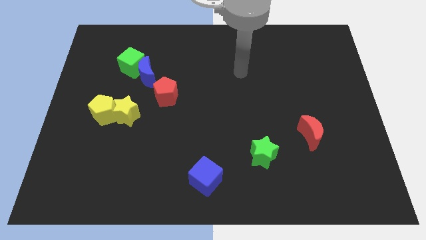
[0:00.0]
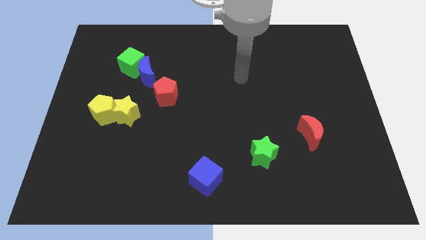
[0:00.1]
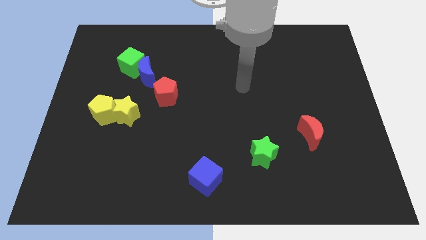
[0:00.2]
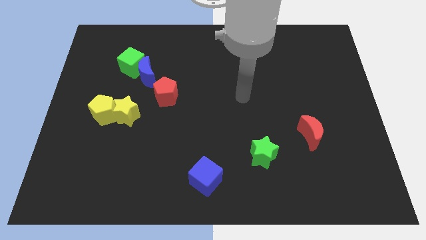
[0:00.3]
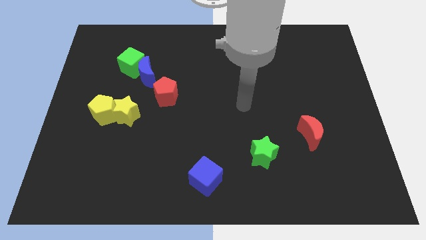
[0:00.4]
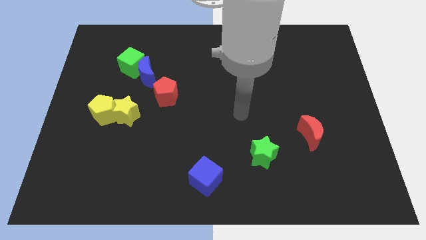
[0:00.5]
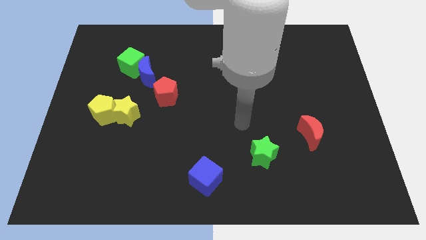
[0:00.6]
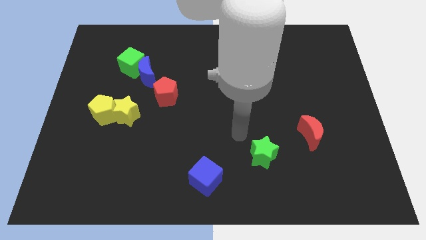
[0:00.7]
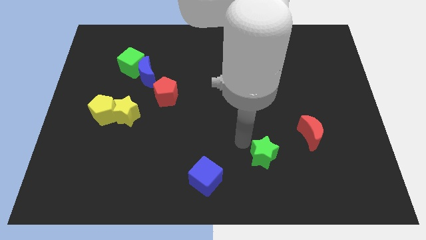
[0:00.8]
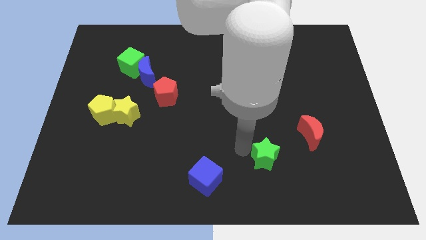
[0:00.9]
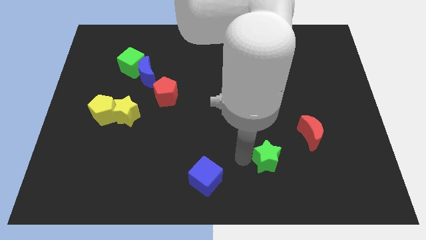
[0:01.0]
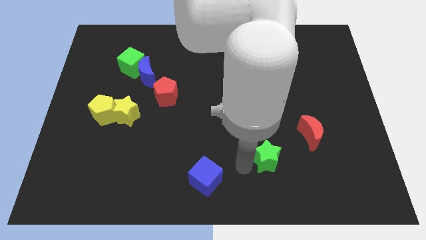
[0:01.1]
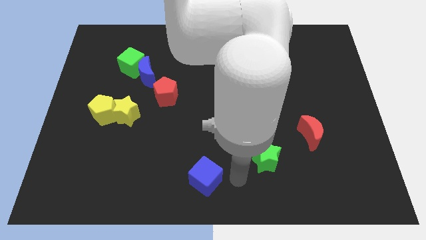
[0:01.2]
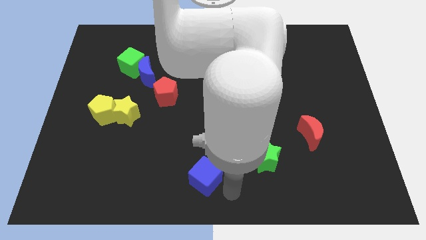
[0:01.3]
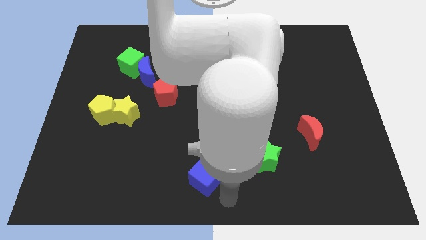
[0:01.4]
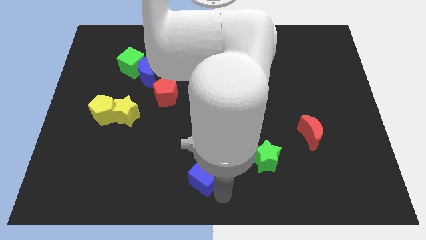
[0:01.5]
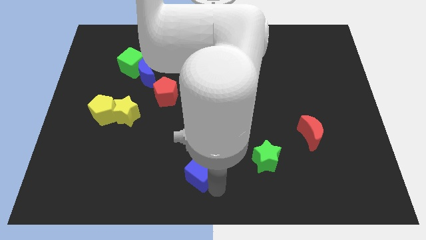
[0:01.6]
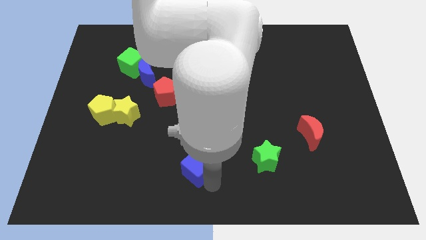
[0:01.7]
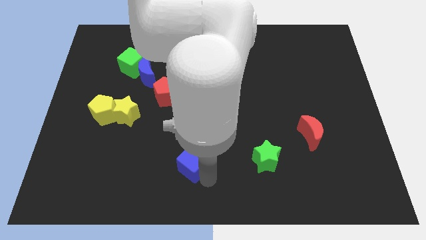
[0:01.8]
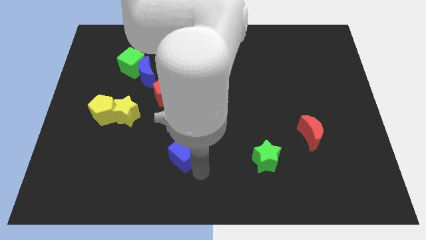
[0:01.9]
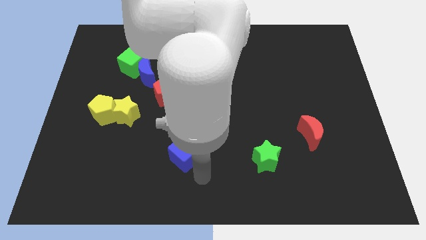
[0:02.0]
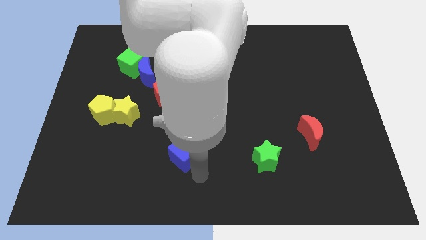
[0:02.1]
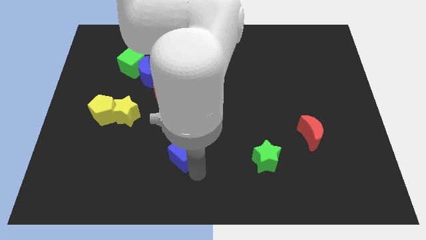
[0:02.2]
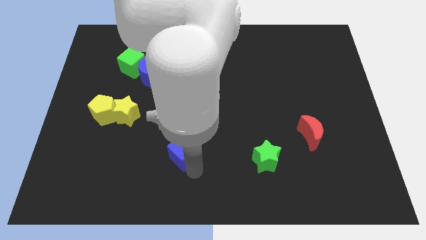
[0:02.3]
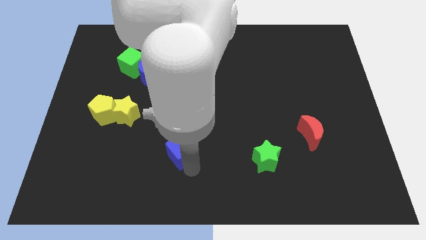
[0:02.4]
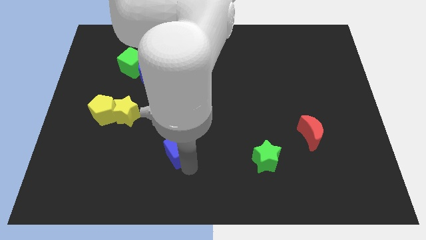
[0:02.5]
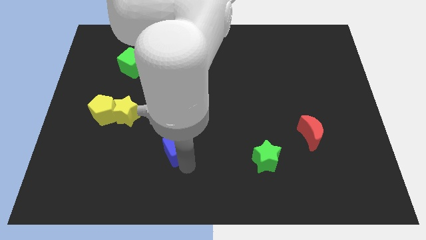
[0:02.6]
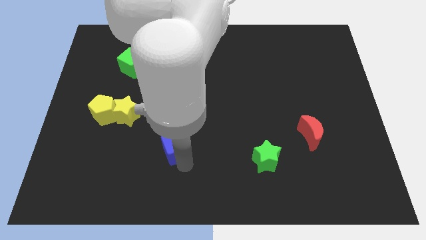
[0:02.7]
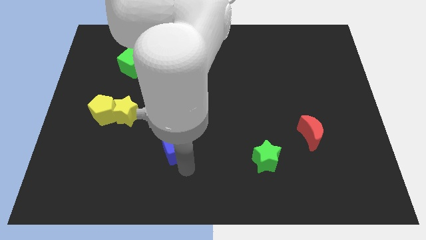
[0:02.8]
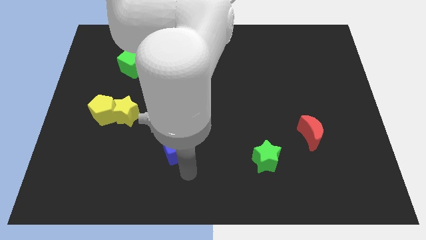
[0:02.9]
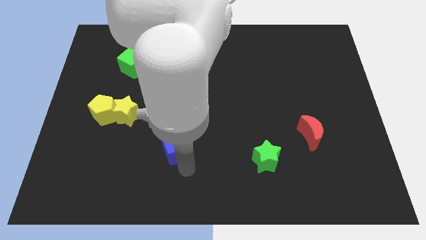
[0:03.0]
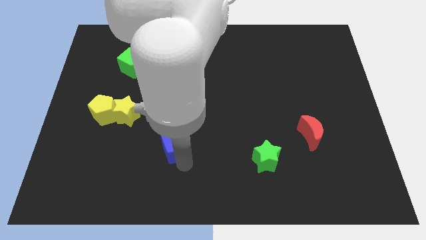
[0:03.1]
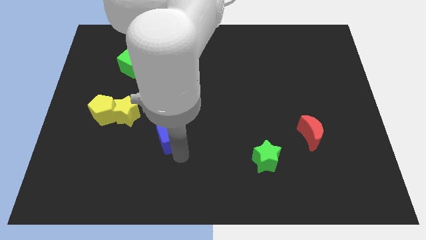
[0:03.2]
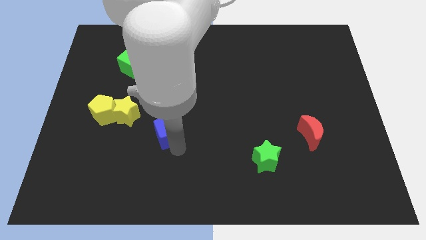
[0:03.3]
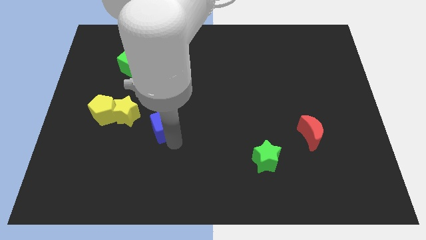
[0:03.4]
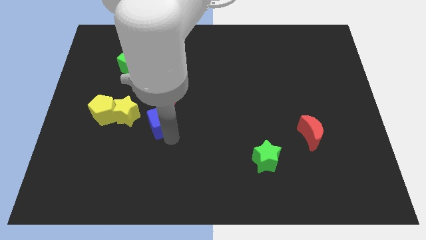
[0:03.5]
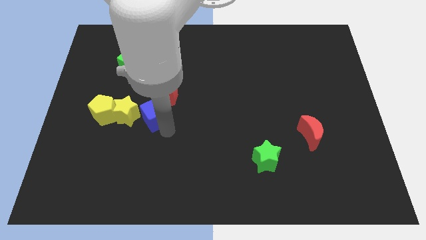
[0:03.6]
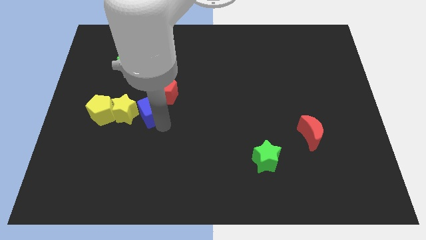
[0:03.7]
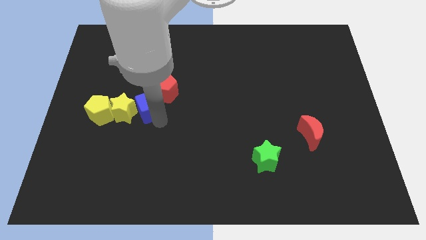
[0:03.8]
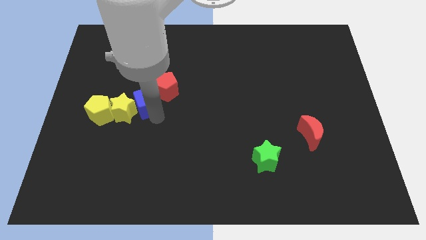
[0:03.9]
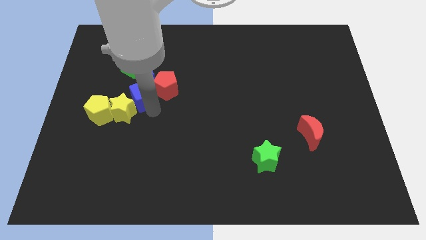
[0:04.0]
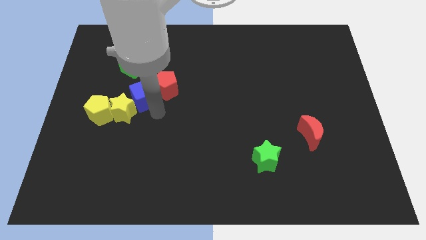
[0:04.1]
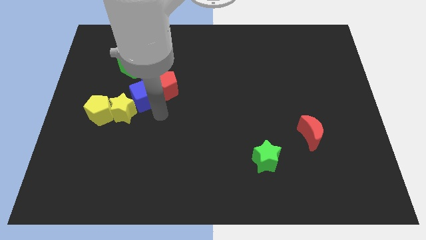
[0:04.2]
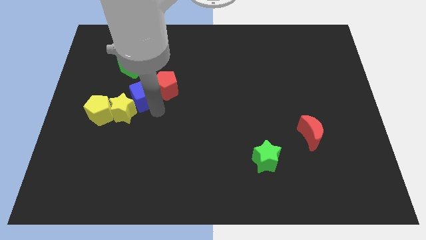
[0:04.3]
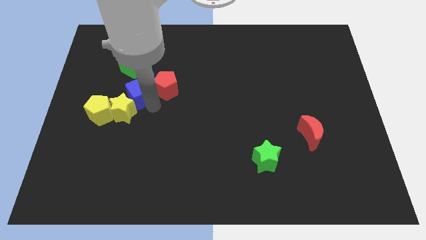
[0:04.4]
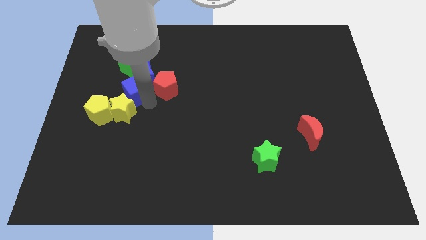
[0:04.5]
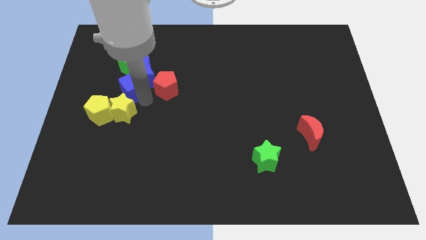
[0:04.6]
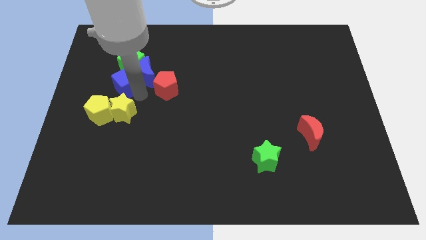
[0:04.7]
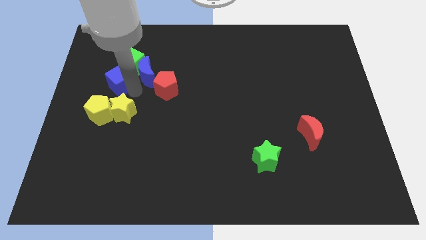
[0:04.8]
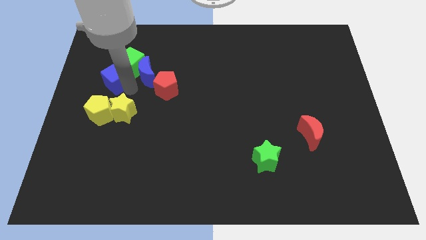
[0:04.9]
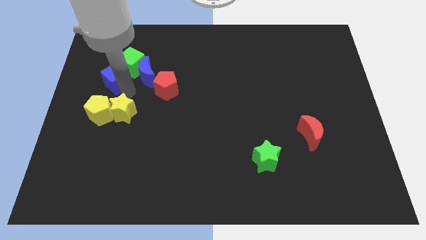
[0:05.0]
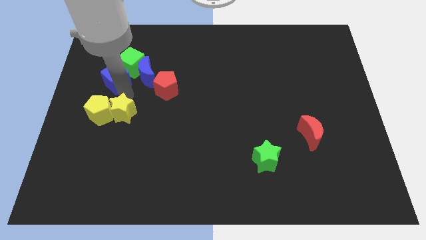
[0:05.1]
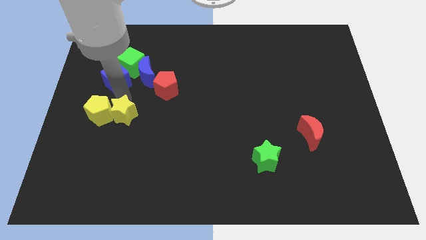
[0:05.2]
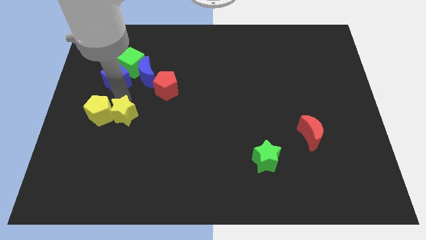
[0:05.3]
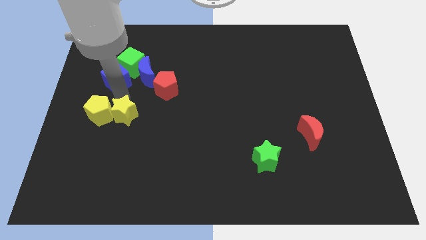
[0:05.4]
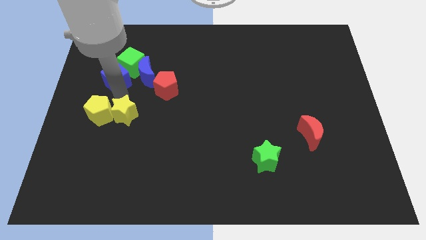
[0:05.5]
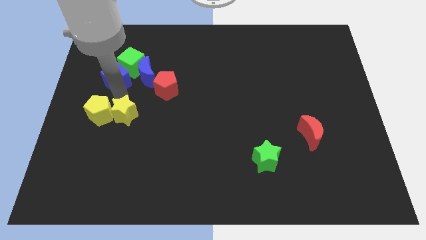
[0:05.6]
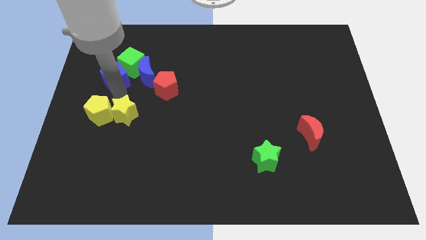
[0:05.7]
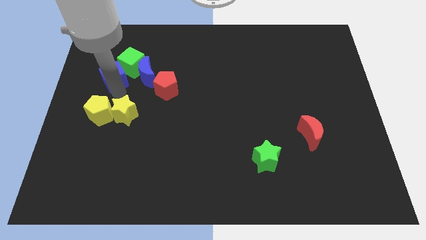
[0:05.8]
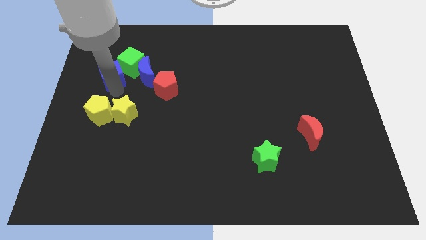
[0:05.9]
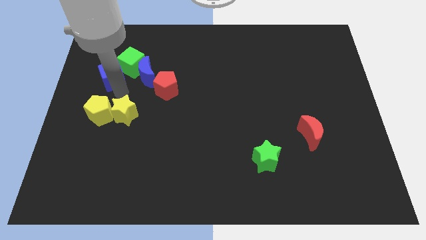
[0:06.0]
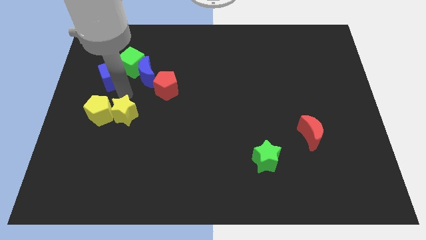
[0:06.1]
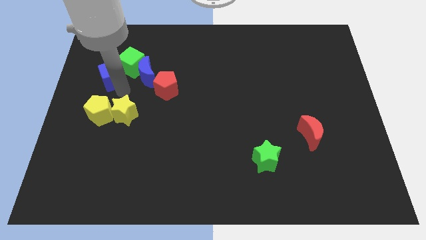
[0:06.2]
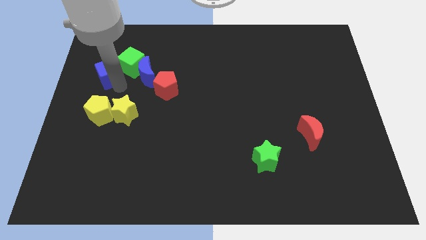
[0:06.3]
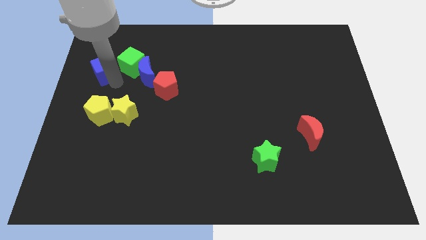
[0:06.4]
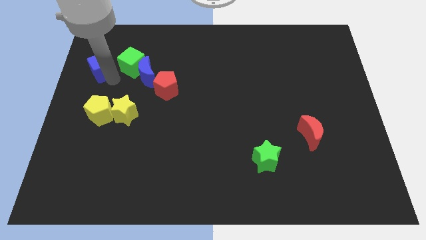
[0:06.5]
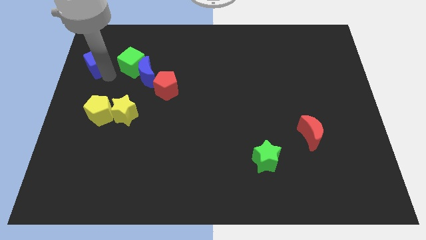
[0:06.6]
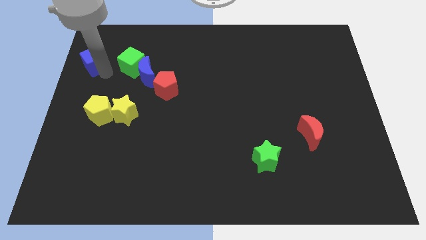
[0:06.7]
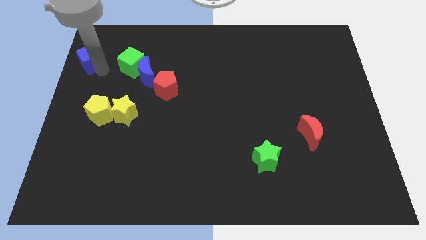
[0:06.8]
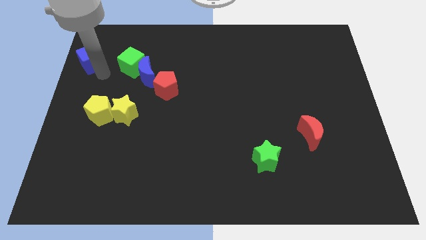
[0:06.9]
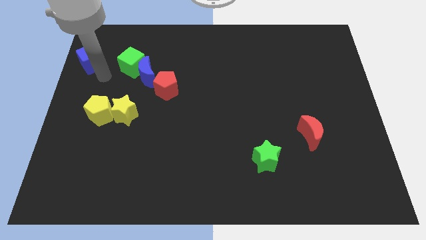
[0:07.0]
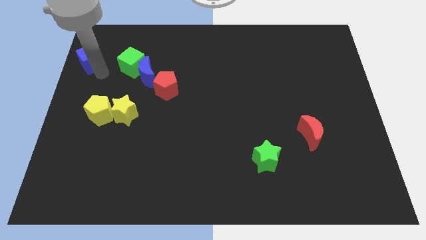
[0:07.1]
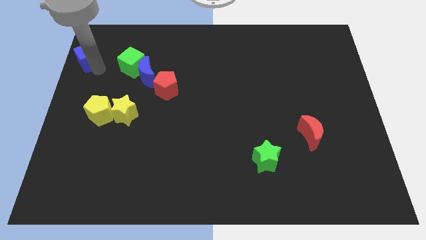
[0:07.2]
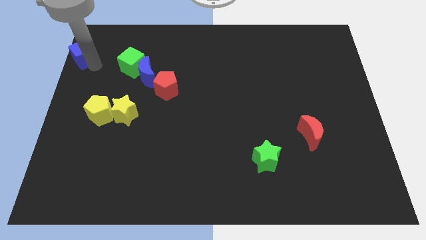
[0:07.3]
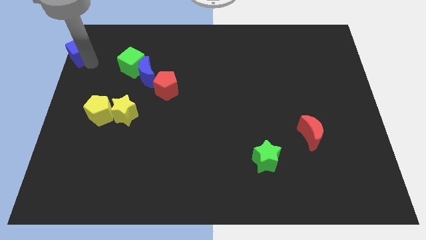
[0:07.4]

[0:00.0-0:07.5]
push the blue cube to the upper left corner
